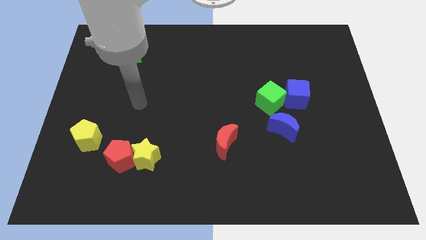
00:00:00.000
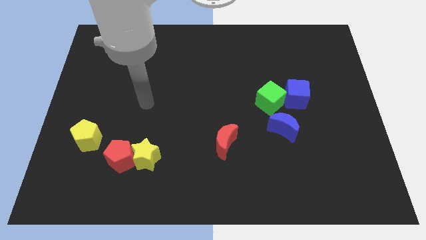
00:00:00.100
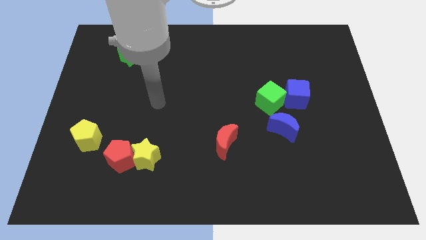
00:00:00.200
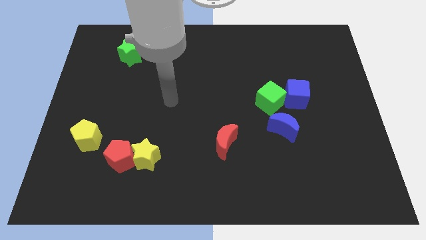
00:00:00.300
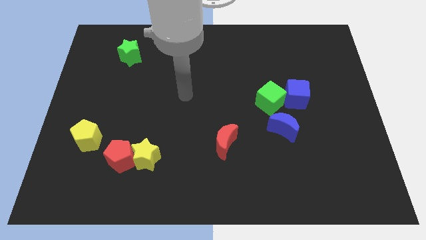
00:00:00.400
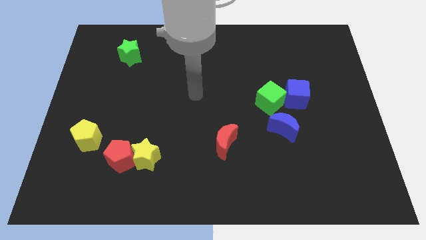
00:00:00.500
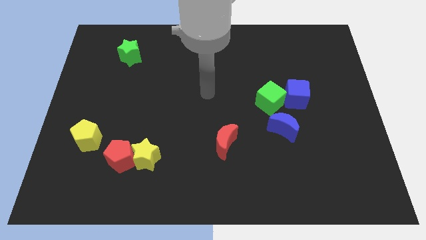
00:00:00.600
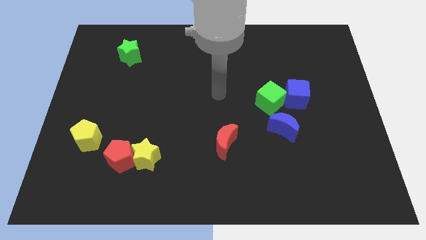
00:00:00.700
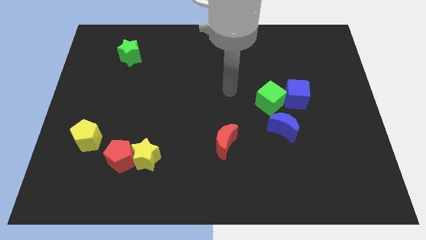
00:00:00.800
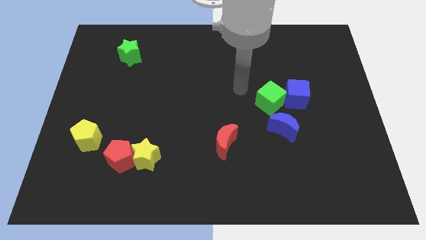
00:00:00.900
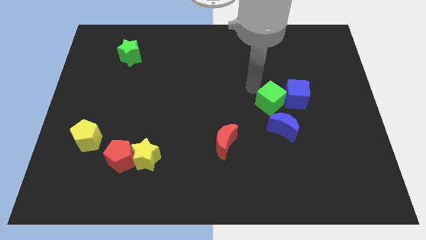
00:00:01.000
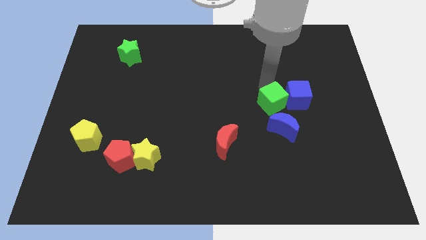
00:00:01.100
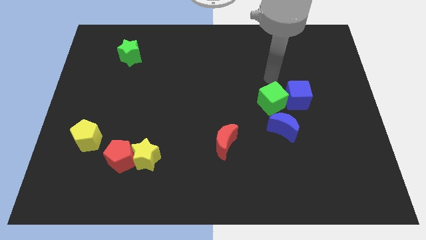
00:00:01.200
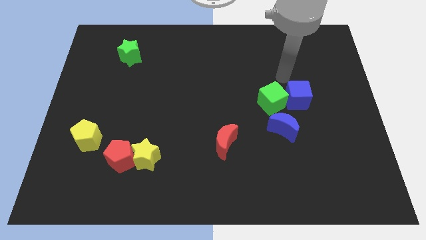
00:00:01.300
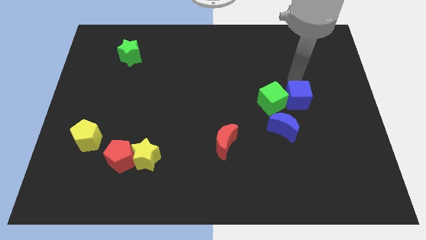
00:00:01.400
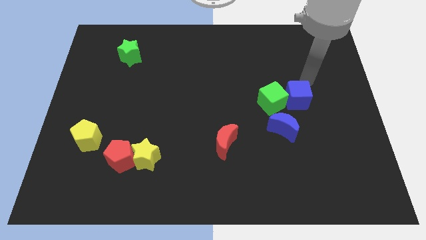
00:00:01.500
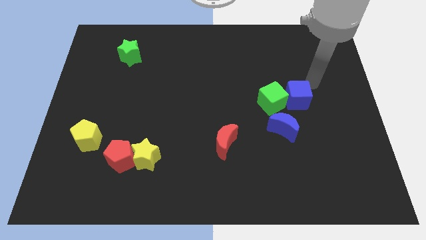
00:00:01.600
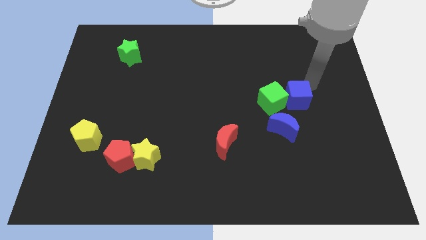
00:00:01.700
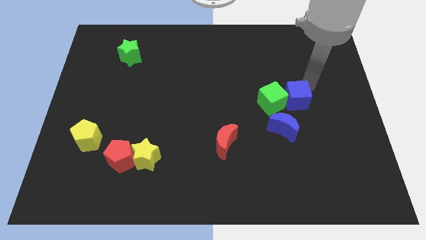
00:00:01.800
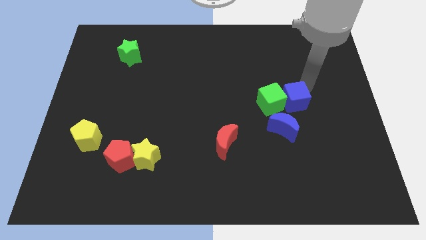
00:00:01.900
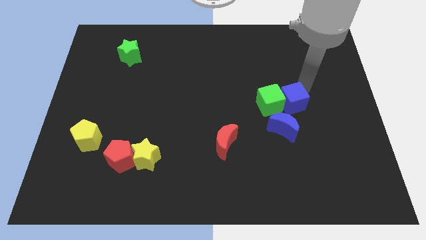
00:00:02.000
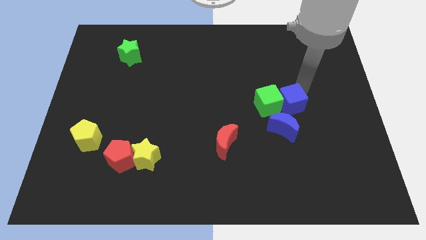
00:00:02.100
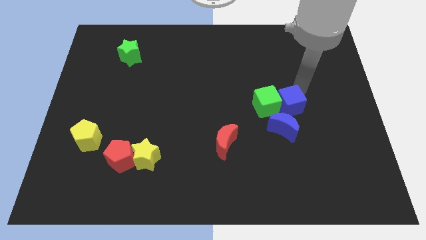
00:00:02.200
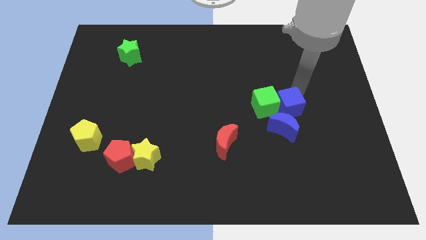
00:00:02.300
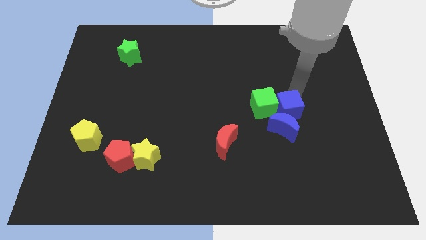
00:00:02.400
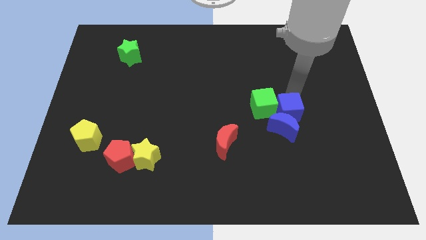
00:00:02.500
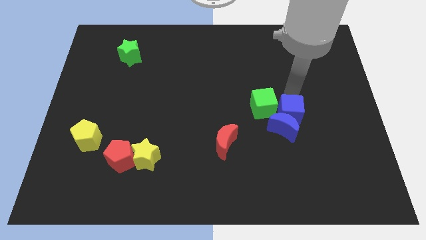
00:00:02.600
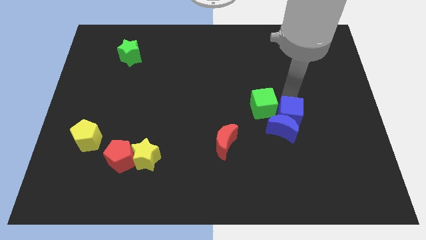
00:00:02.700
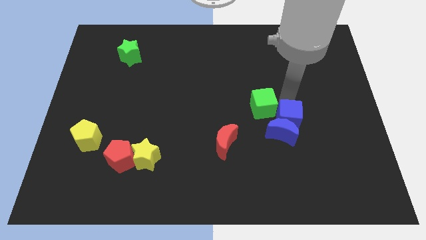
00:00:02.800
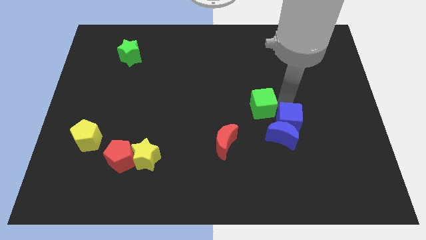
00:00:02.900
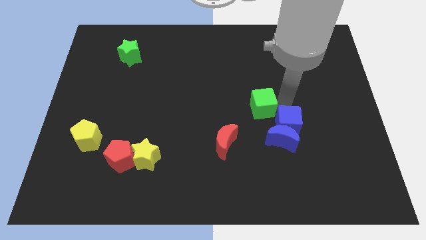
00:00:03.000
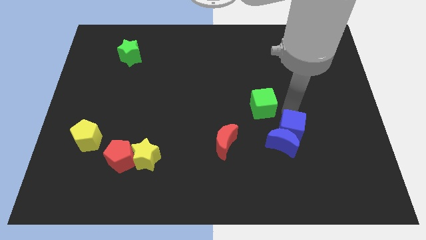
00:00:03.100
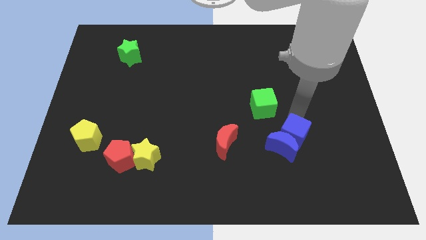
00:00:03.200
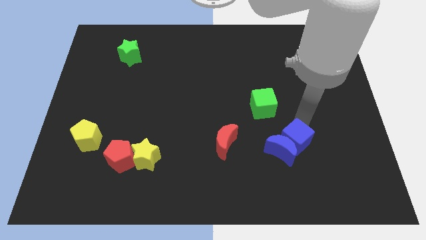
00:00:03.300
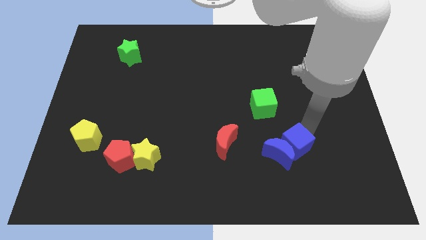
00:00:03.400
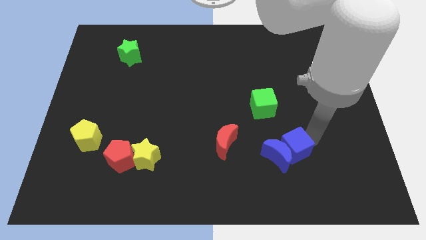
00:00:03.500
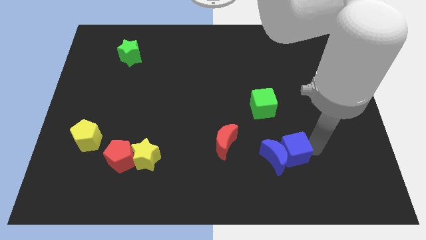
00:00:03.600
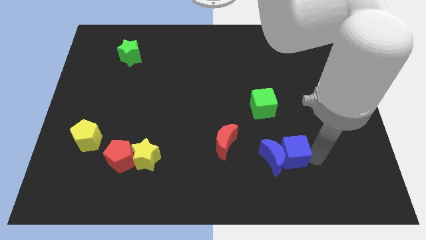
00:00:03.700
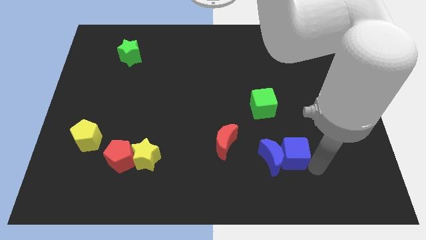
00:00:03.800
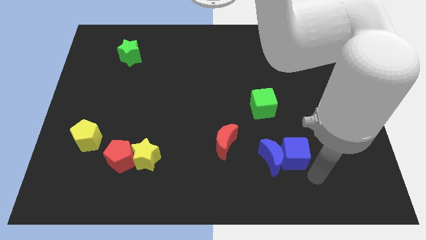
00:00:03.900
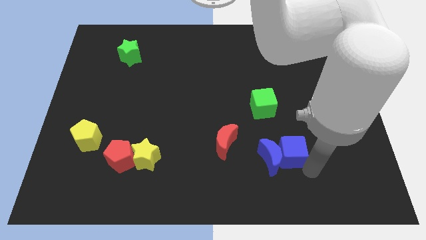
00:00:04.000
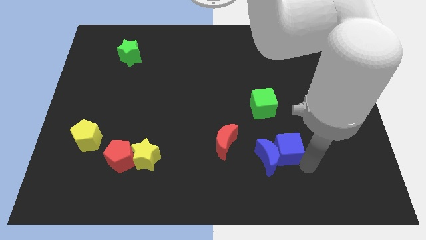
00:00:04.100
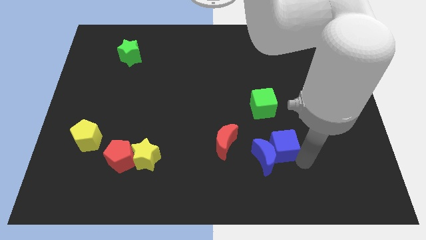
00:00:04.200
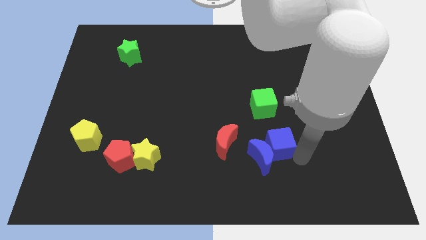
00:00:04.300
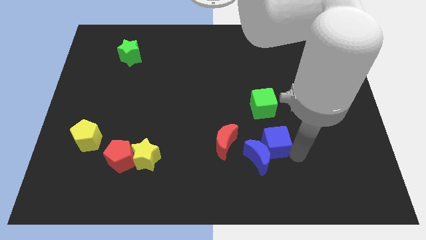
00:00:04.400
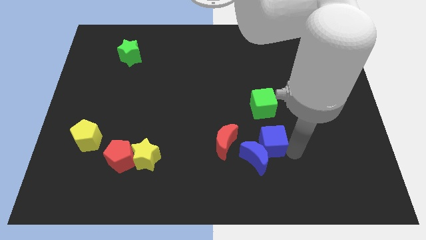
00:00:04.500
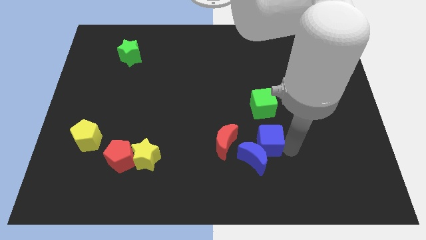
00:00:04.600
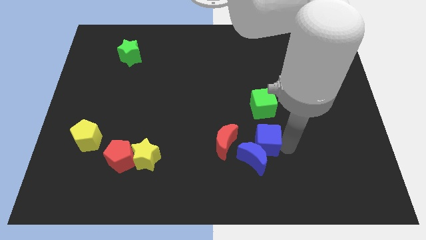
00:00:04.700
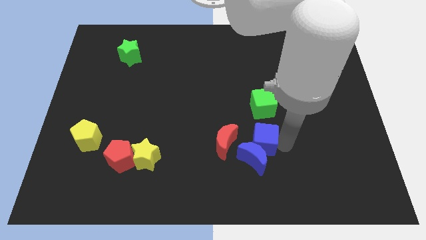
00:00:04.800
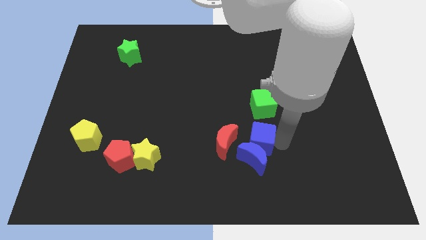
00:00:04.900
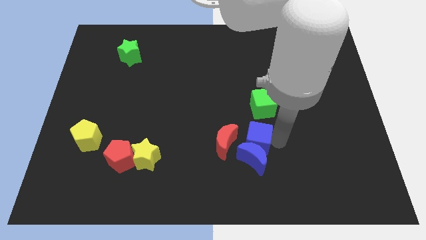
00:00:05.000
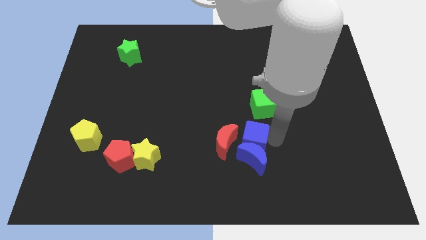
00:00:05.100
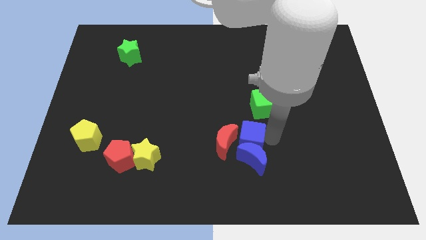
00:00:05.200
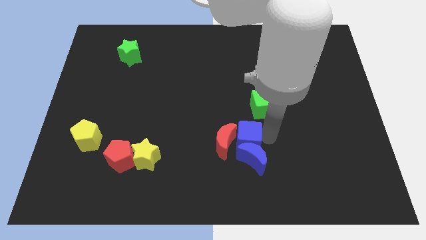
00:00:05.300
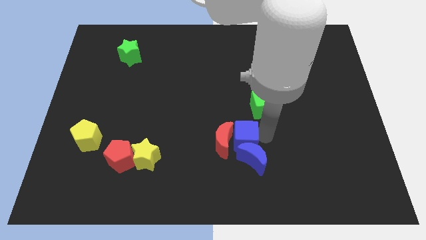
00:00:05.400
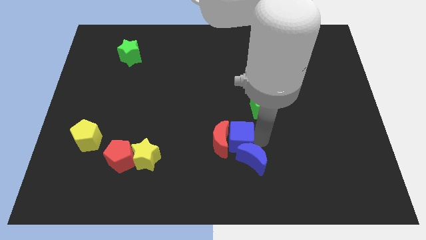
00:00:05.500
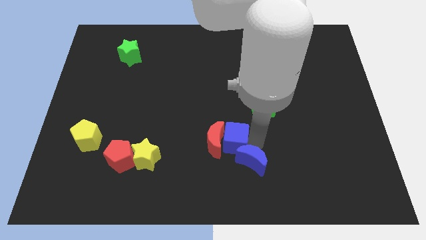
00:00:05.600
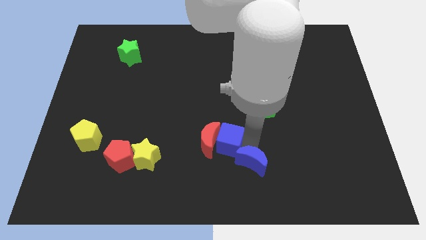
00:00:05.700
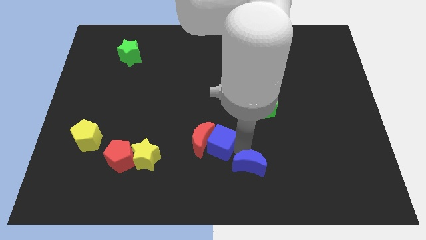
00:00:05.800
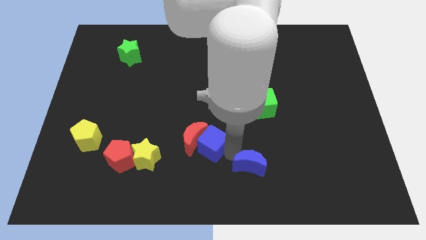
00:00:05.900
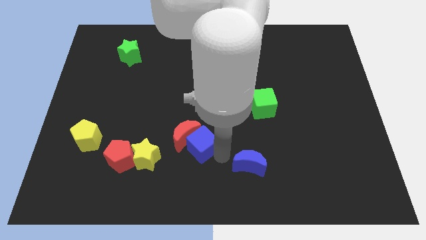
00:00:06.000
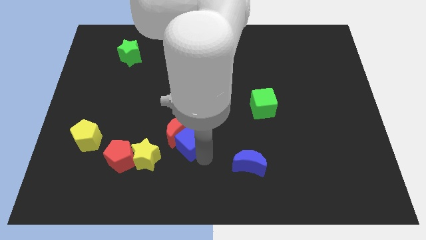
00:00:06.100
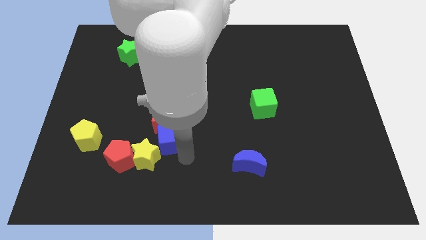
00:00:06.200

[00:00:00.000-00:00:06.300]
move the blue cube to the left

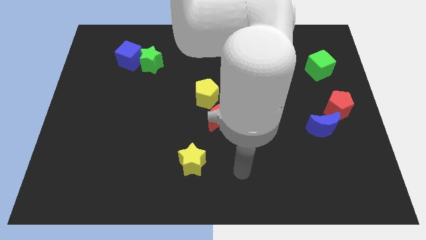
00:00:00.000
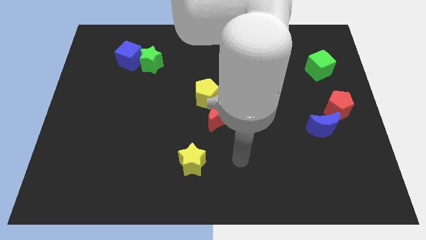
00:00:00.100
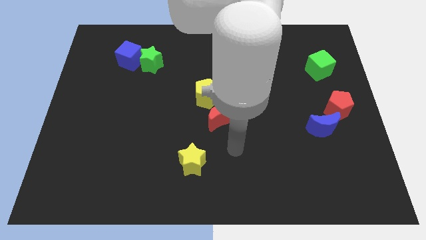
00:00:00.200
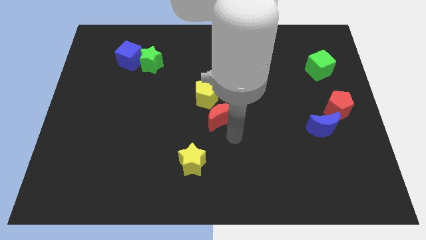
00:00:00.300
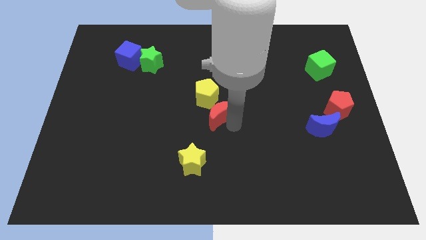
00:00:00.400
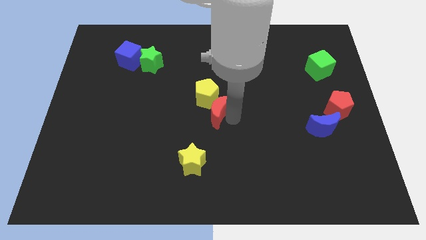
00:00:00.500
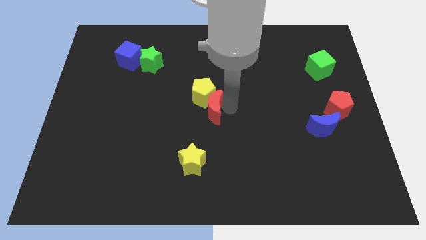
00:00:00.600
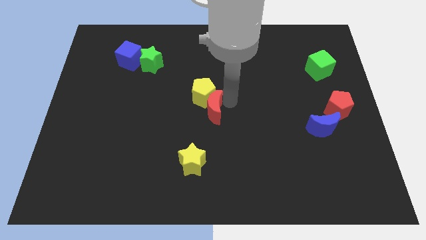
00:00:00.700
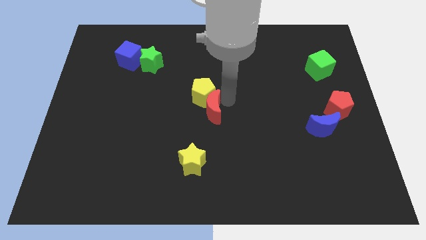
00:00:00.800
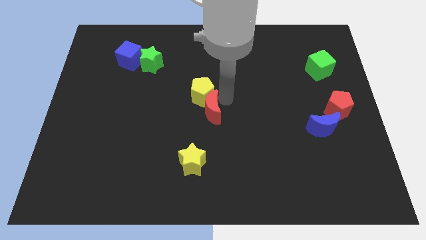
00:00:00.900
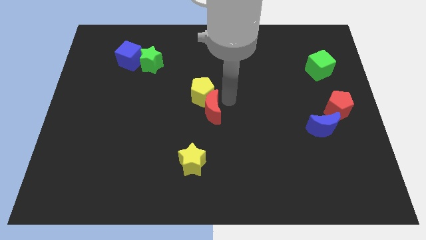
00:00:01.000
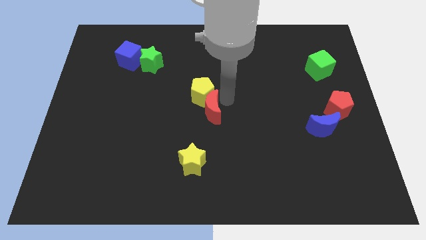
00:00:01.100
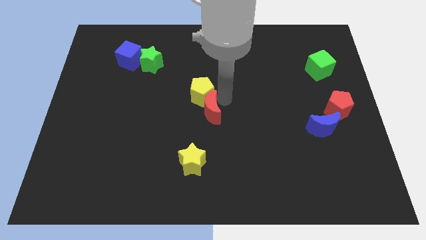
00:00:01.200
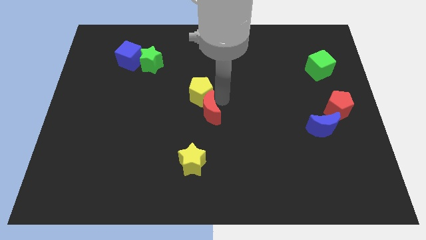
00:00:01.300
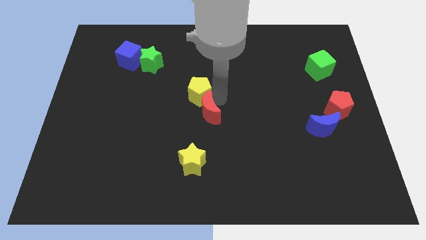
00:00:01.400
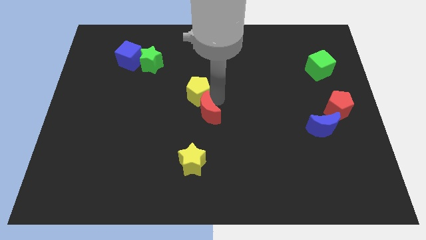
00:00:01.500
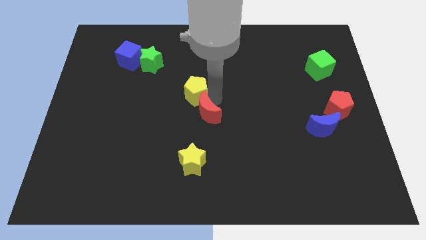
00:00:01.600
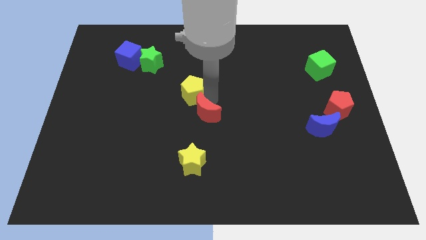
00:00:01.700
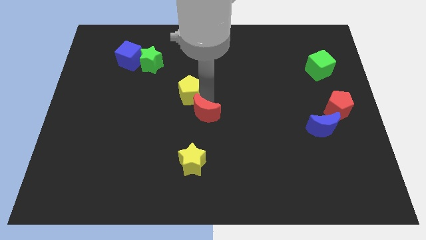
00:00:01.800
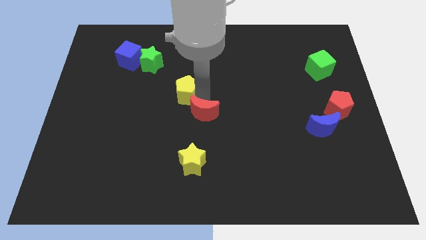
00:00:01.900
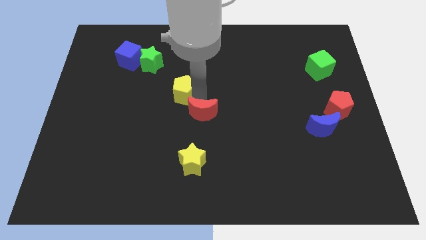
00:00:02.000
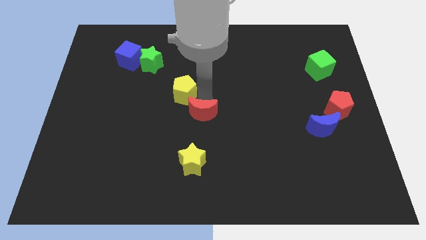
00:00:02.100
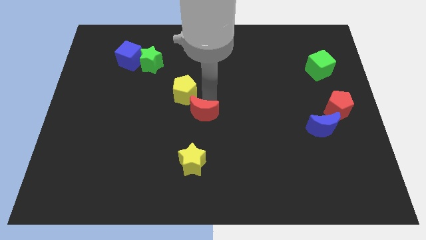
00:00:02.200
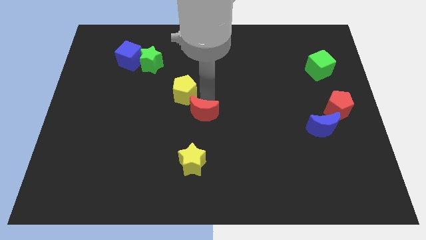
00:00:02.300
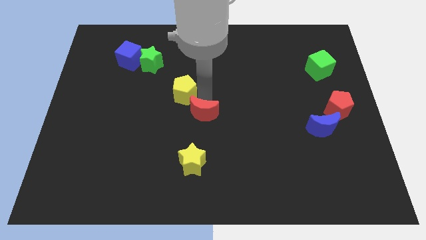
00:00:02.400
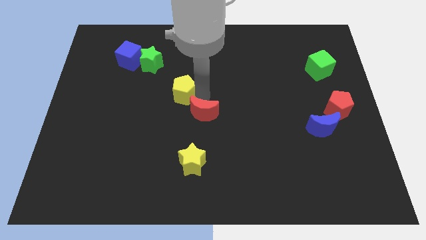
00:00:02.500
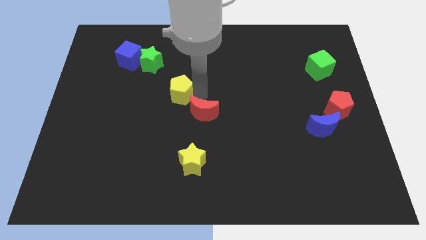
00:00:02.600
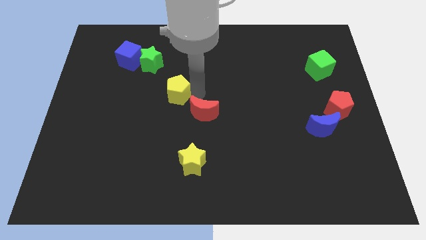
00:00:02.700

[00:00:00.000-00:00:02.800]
slightly move the yellow pentagon left
